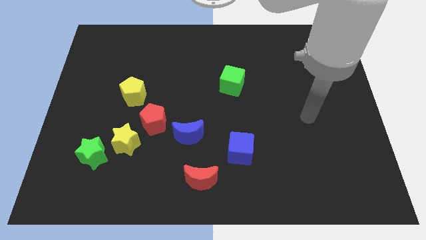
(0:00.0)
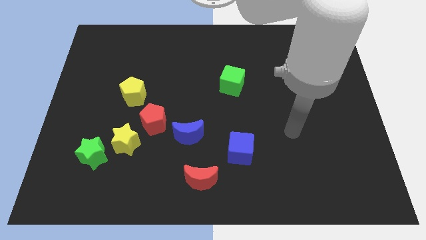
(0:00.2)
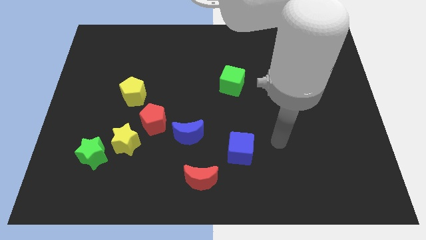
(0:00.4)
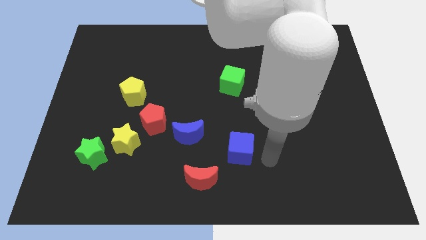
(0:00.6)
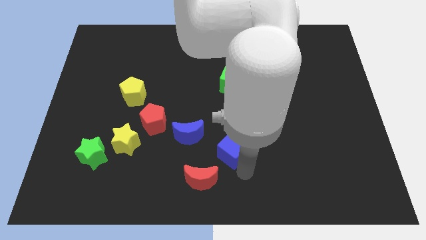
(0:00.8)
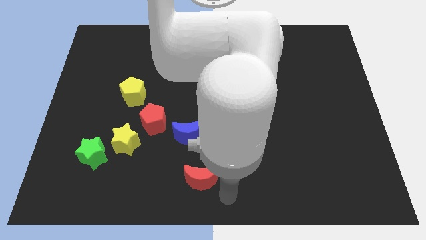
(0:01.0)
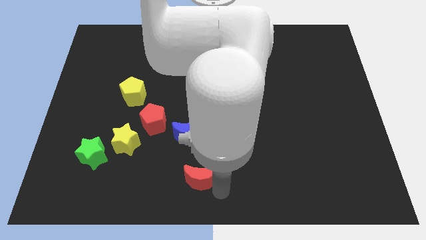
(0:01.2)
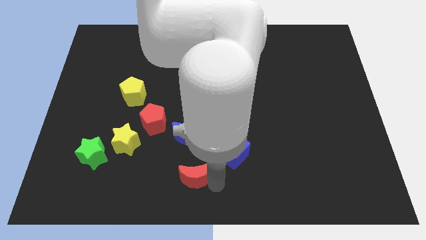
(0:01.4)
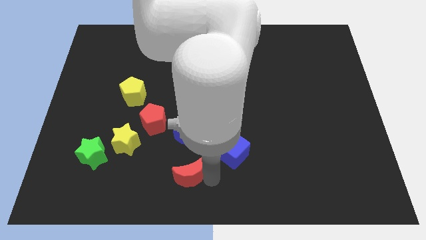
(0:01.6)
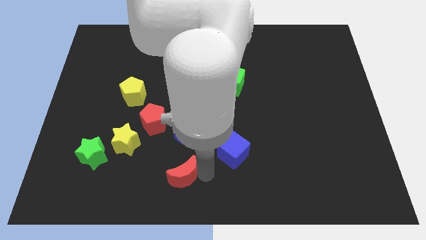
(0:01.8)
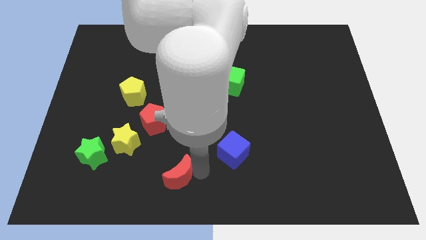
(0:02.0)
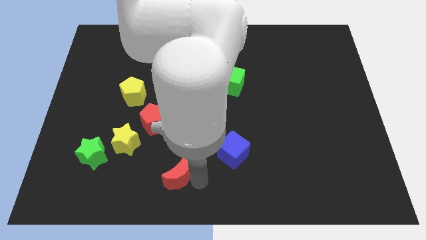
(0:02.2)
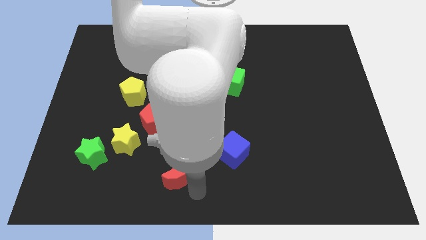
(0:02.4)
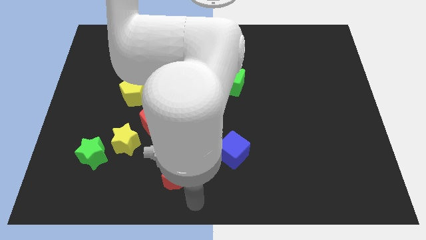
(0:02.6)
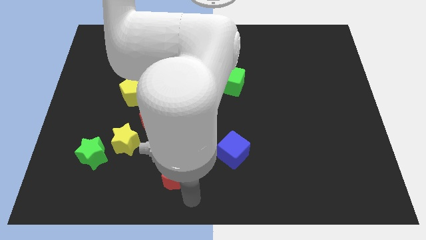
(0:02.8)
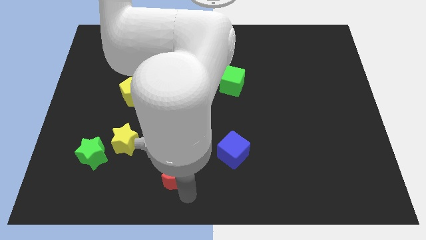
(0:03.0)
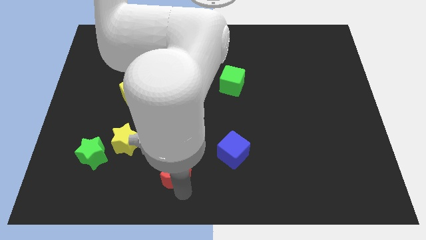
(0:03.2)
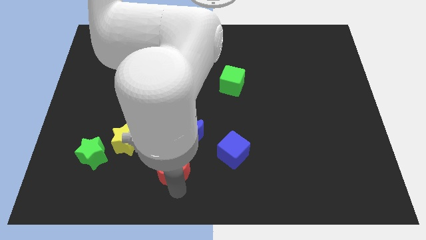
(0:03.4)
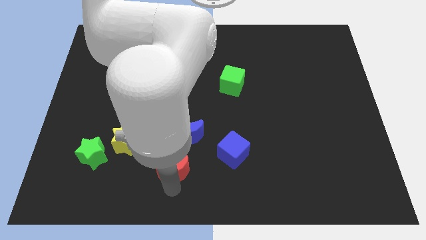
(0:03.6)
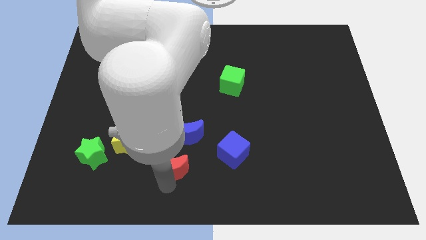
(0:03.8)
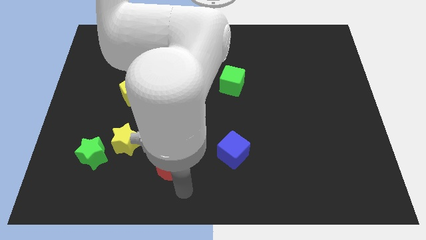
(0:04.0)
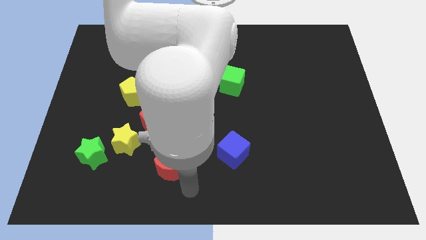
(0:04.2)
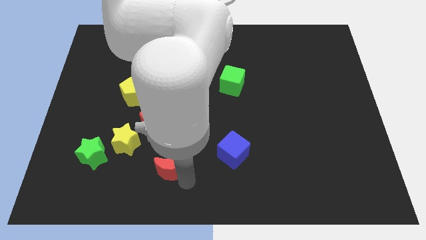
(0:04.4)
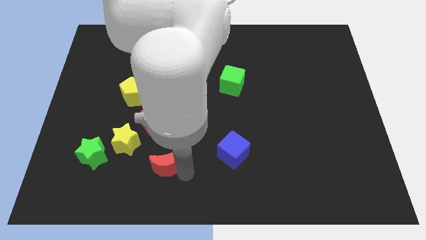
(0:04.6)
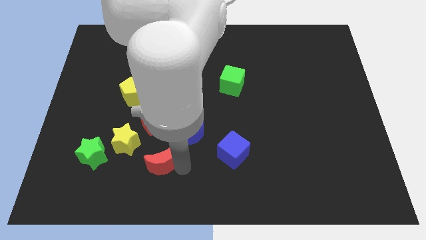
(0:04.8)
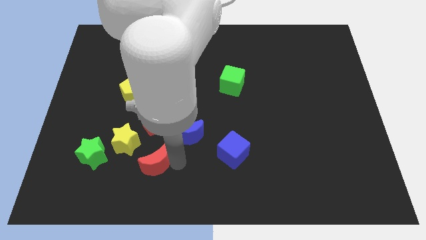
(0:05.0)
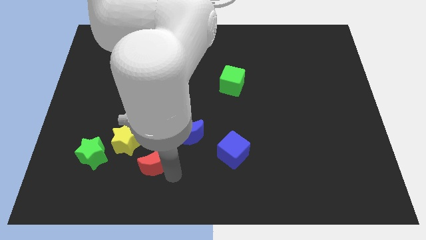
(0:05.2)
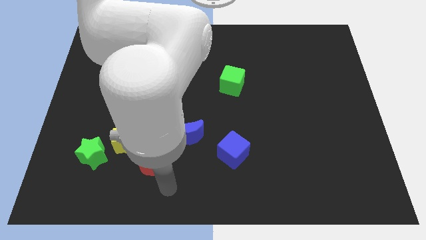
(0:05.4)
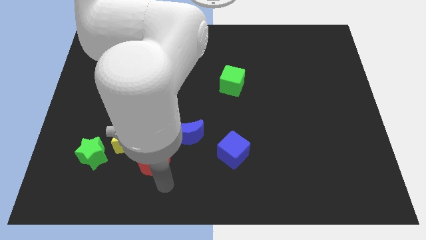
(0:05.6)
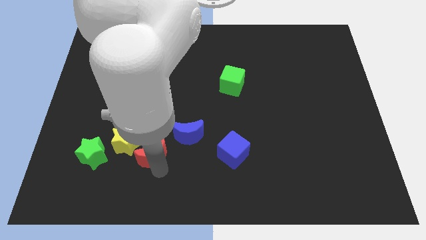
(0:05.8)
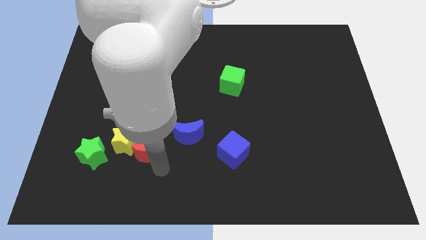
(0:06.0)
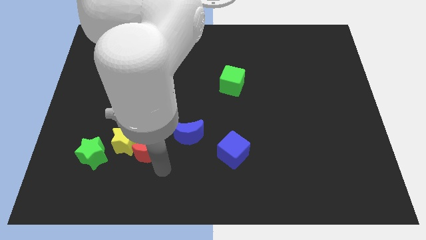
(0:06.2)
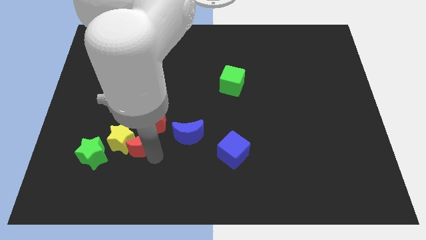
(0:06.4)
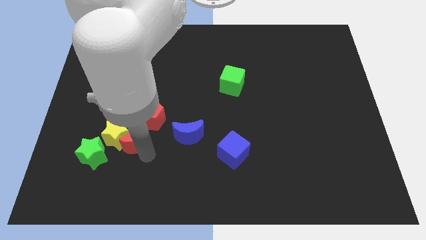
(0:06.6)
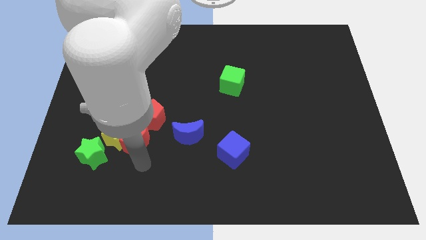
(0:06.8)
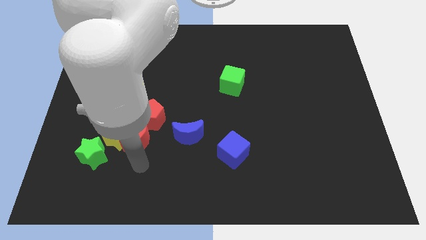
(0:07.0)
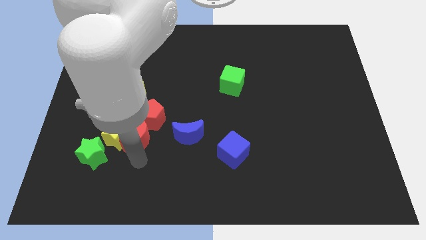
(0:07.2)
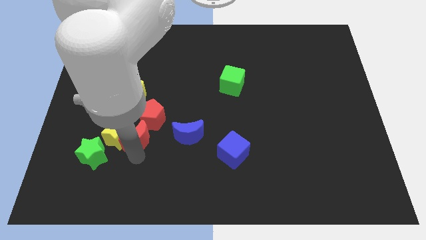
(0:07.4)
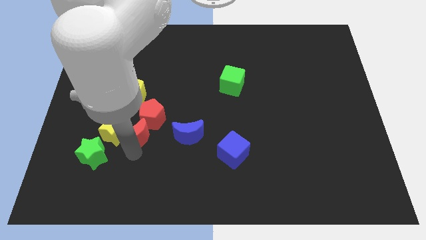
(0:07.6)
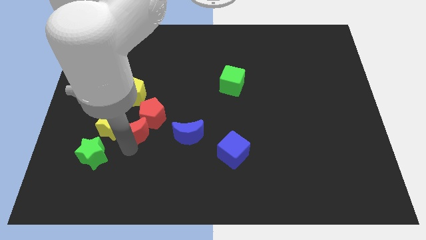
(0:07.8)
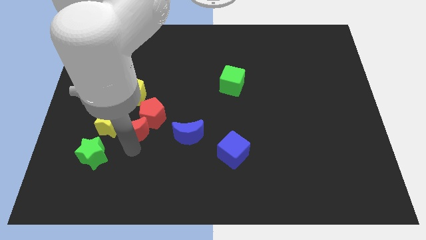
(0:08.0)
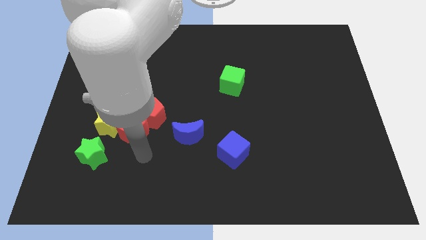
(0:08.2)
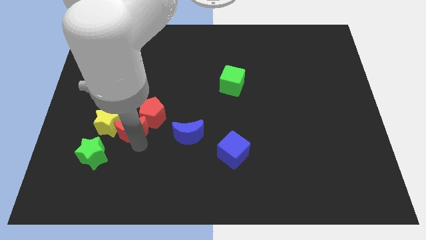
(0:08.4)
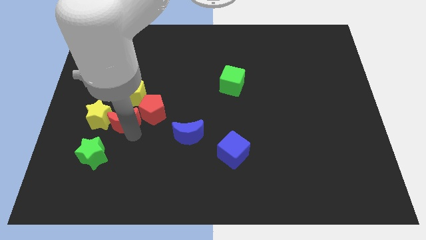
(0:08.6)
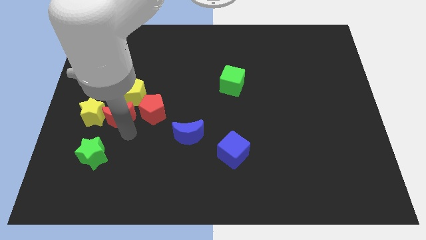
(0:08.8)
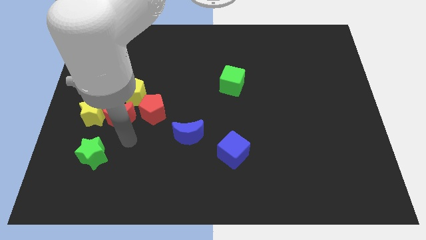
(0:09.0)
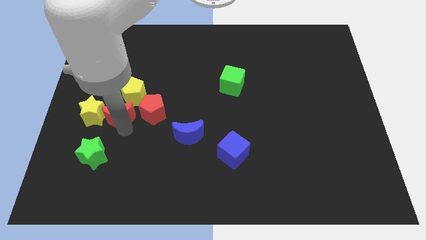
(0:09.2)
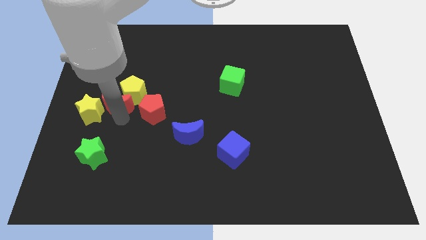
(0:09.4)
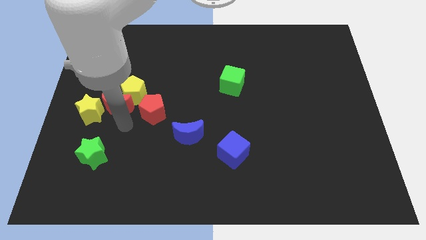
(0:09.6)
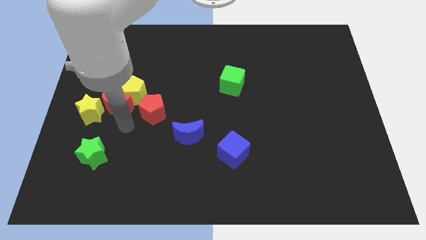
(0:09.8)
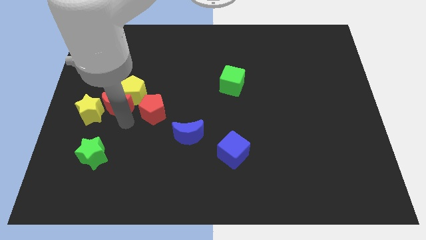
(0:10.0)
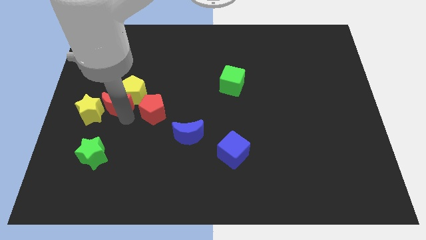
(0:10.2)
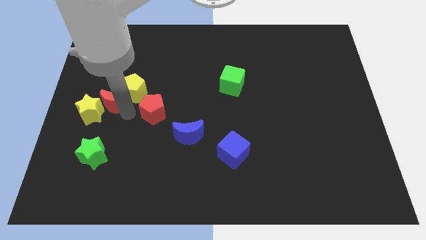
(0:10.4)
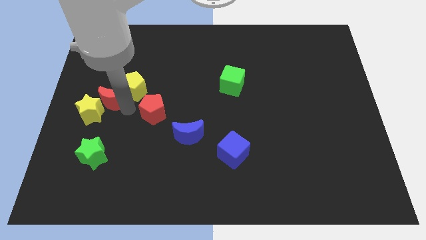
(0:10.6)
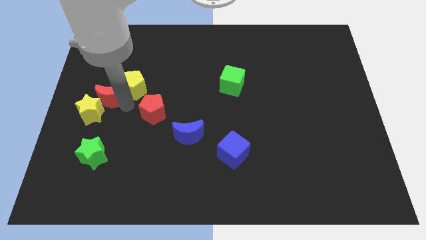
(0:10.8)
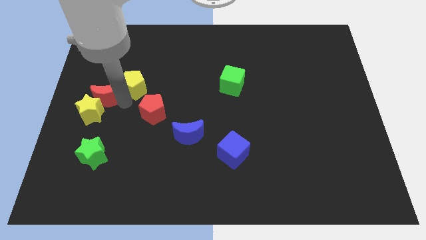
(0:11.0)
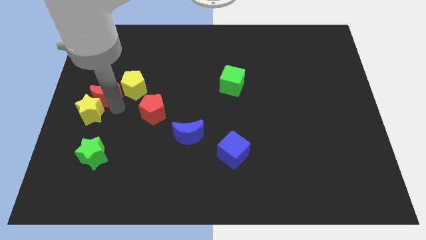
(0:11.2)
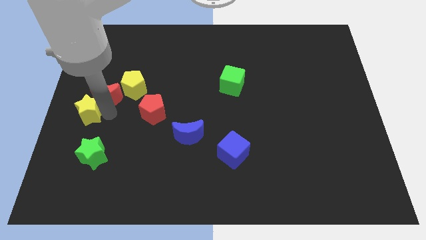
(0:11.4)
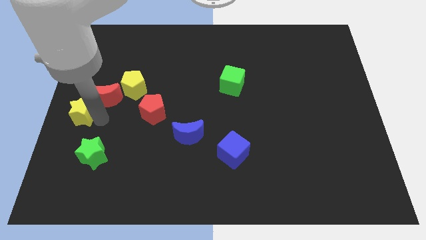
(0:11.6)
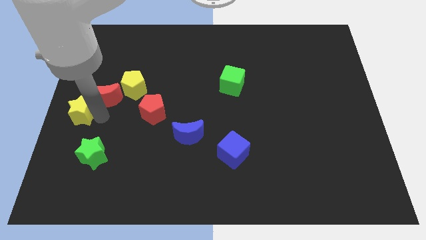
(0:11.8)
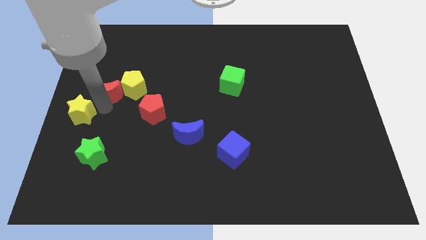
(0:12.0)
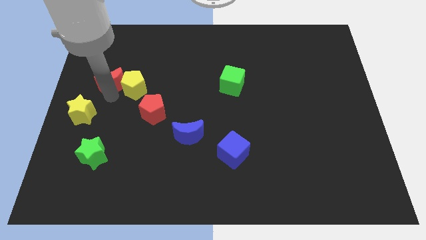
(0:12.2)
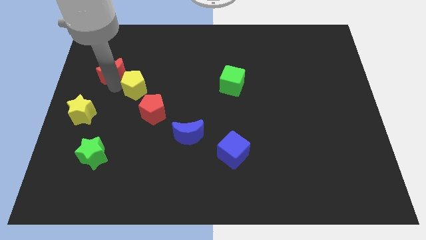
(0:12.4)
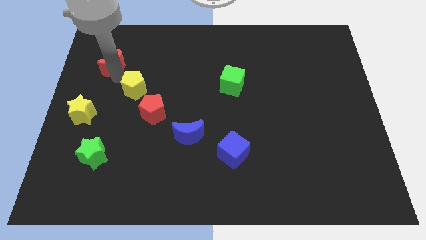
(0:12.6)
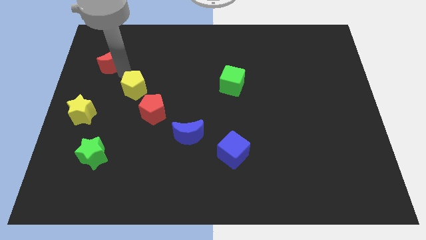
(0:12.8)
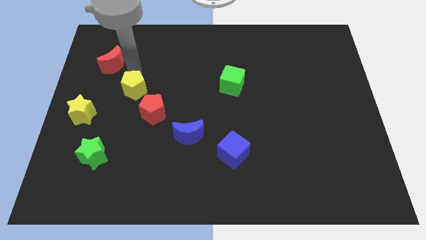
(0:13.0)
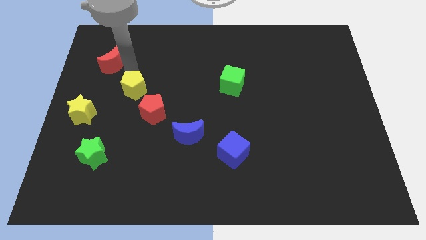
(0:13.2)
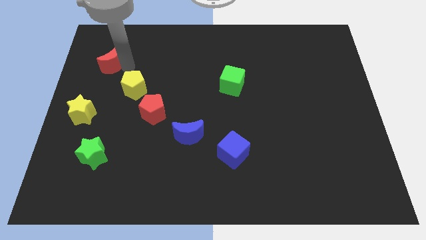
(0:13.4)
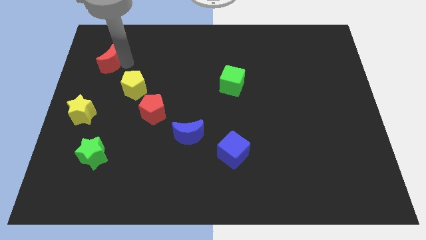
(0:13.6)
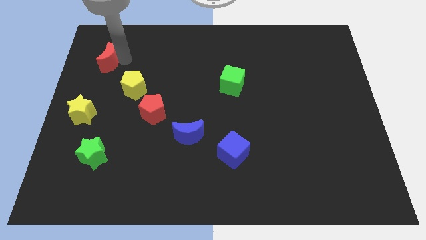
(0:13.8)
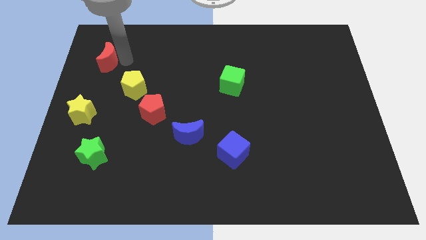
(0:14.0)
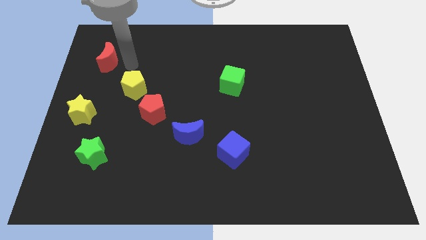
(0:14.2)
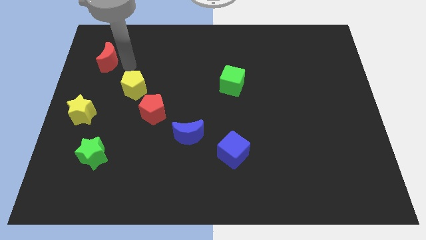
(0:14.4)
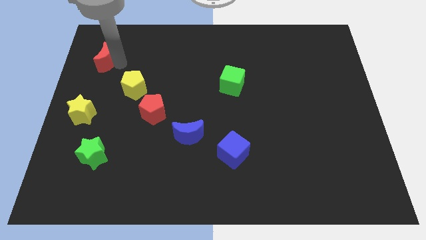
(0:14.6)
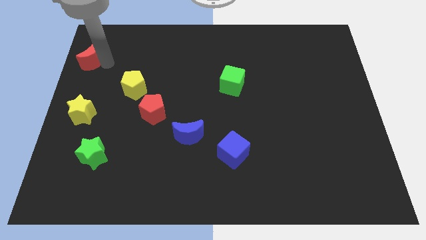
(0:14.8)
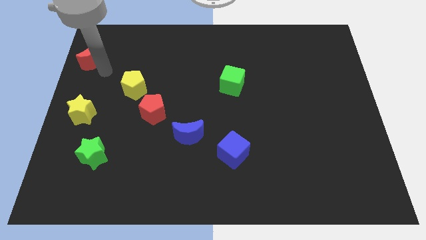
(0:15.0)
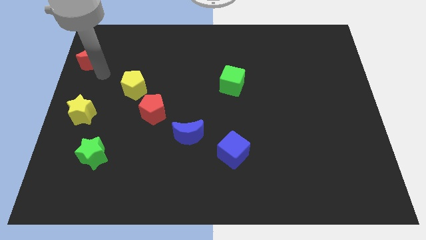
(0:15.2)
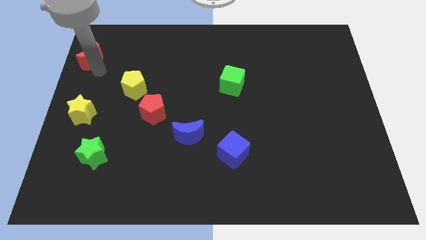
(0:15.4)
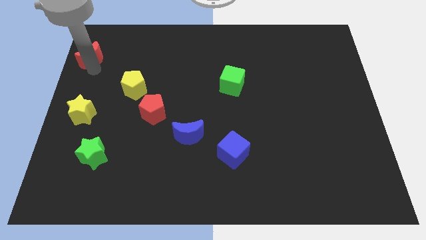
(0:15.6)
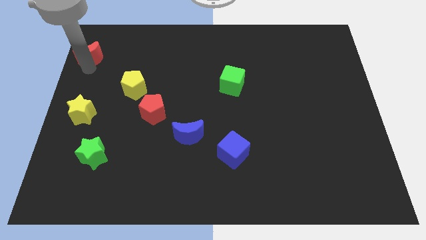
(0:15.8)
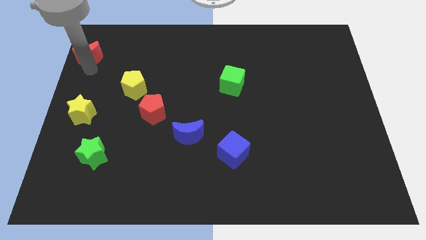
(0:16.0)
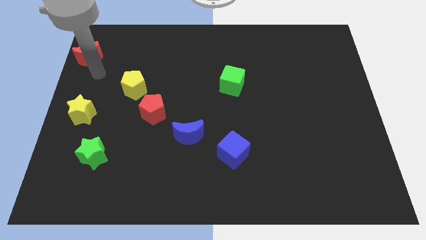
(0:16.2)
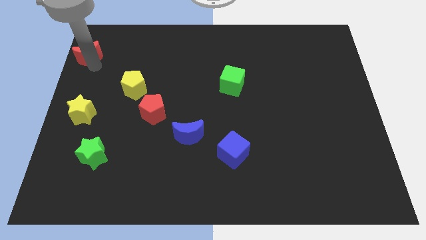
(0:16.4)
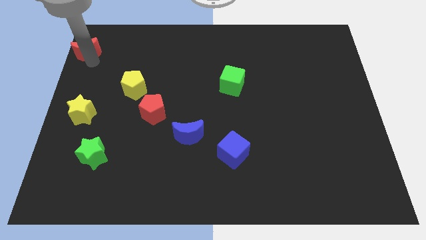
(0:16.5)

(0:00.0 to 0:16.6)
put the red moon to the top left corner
